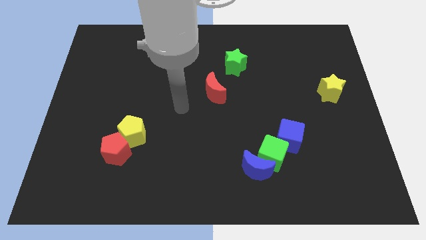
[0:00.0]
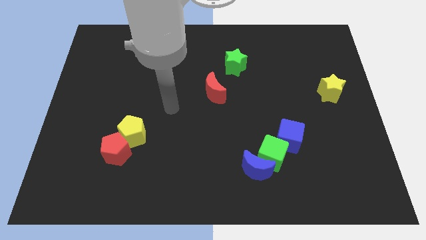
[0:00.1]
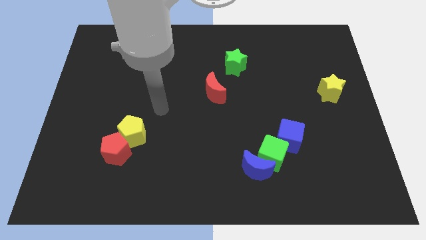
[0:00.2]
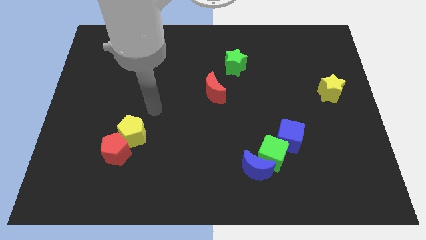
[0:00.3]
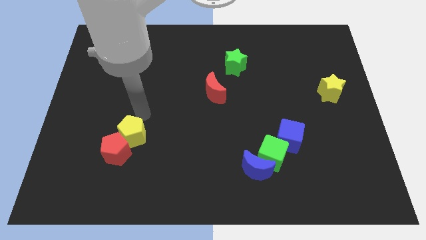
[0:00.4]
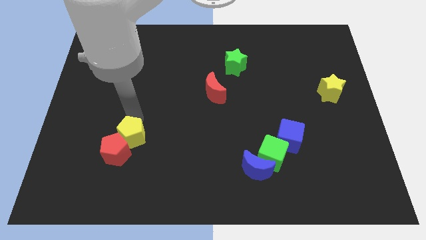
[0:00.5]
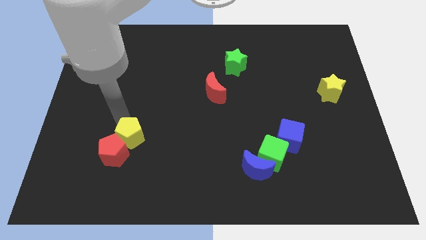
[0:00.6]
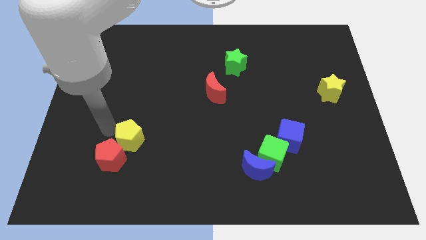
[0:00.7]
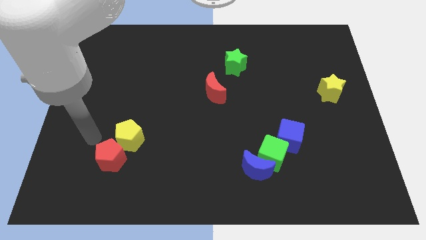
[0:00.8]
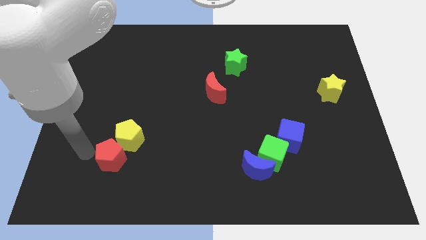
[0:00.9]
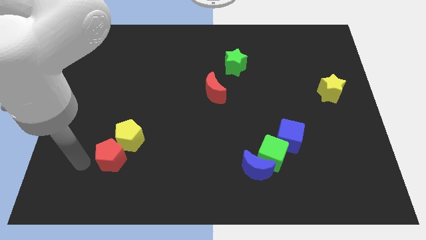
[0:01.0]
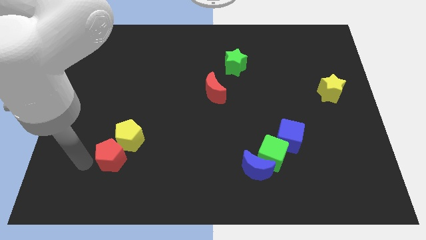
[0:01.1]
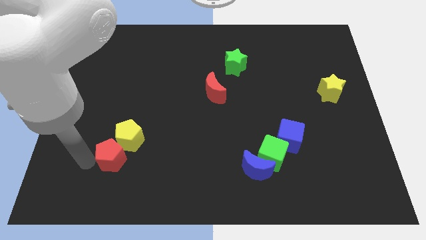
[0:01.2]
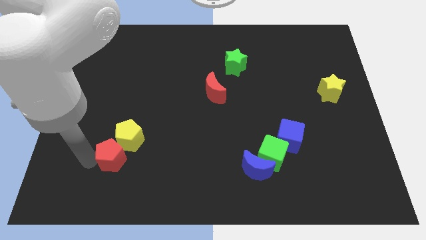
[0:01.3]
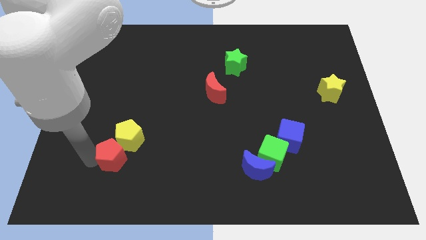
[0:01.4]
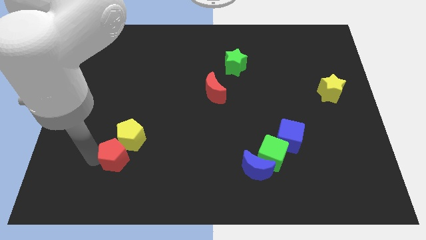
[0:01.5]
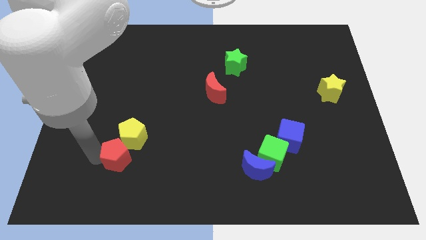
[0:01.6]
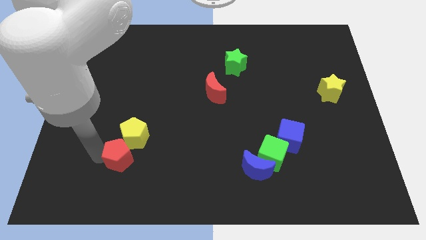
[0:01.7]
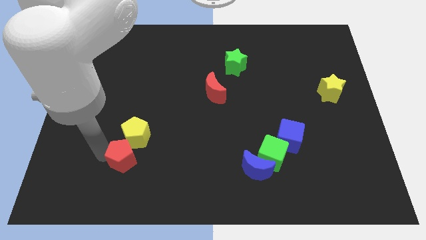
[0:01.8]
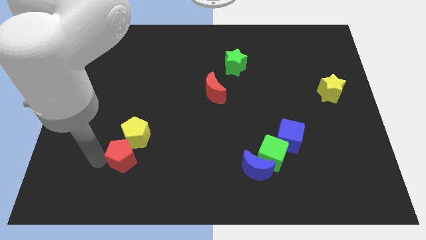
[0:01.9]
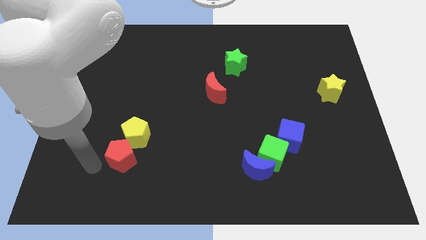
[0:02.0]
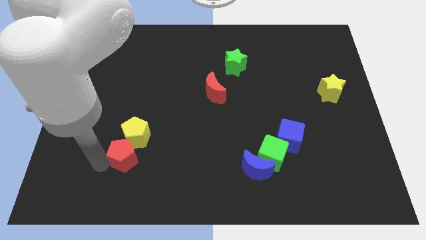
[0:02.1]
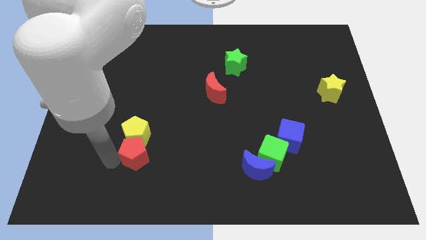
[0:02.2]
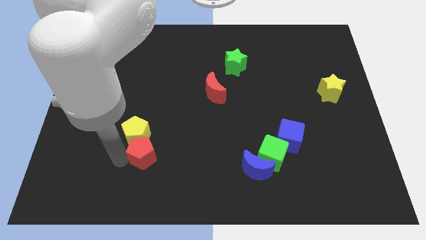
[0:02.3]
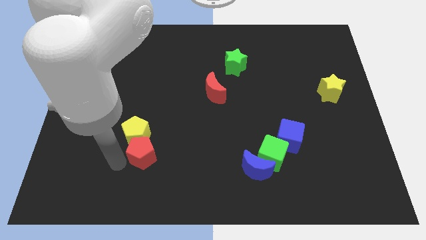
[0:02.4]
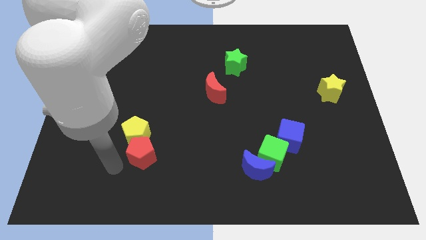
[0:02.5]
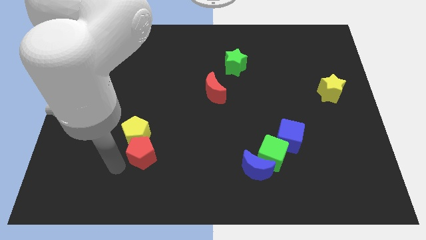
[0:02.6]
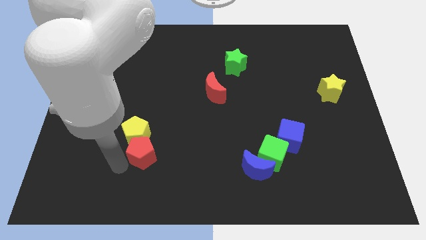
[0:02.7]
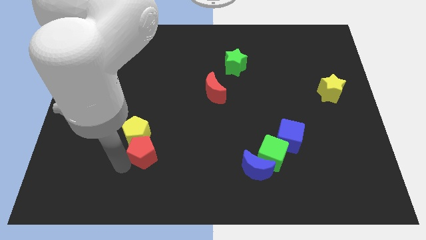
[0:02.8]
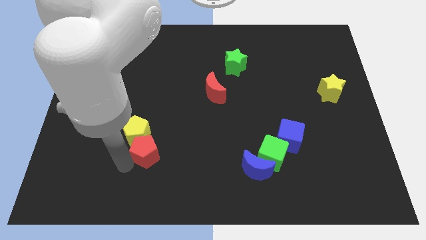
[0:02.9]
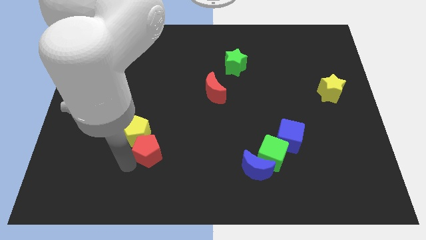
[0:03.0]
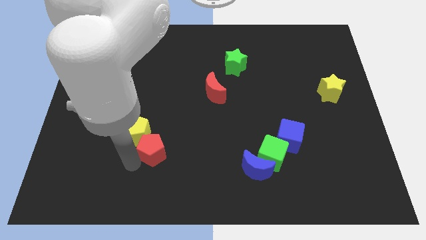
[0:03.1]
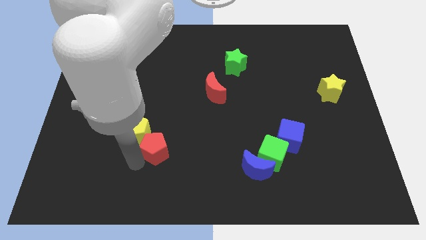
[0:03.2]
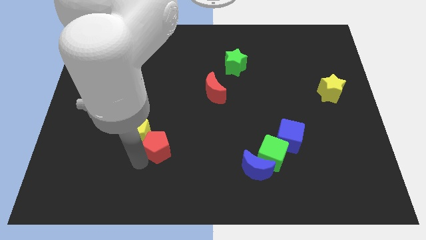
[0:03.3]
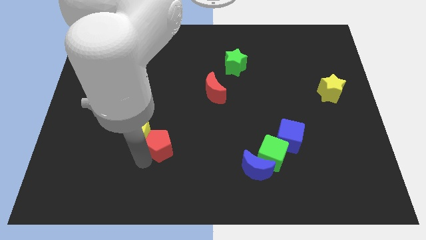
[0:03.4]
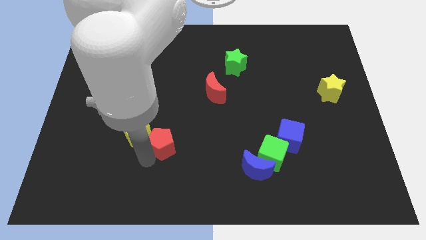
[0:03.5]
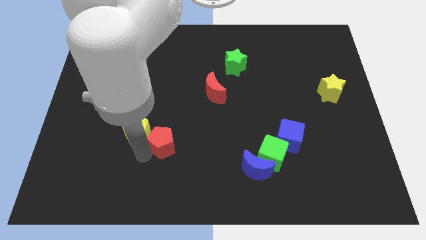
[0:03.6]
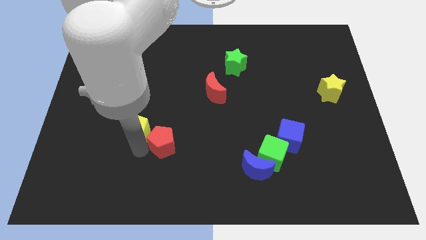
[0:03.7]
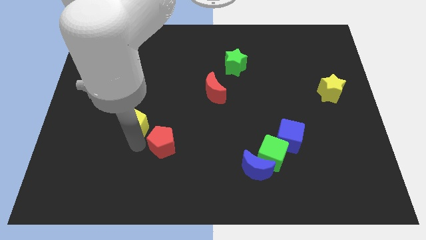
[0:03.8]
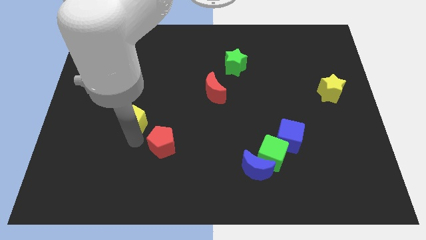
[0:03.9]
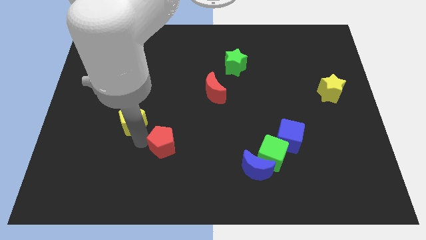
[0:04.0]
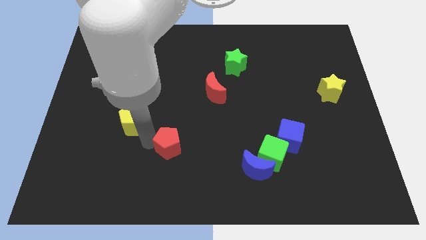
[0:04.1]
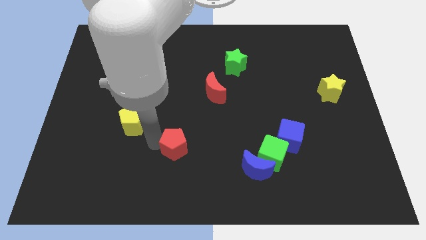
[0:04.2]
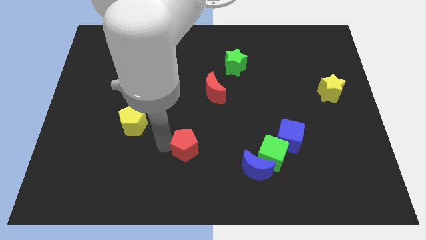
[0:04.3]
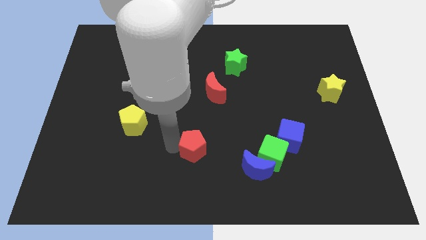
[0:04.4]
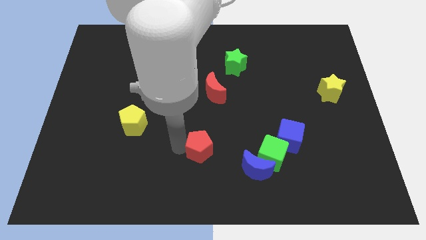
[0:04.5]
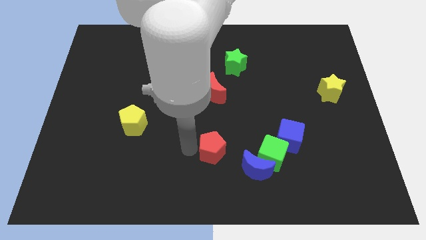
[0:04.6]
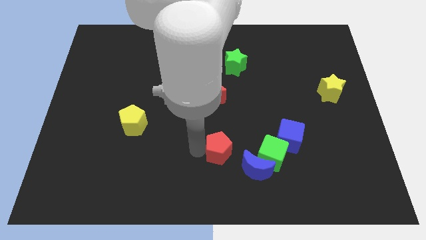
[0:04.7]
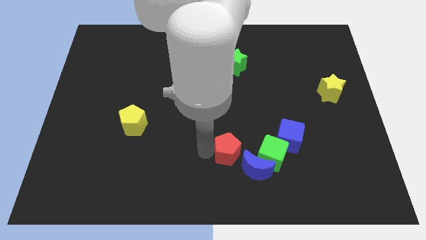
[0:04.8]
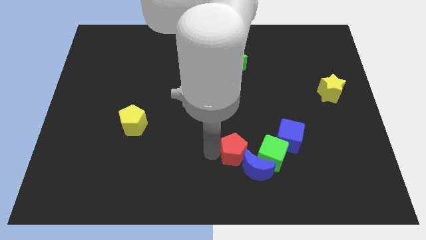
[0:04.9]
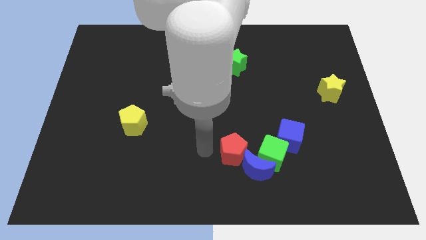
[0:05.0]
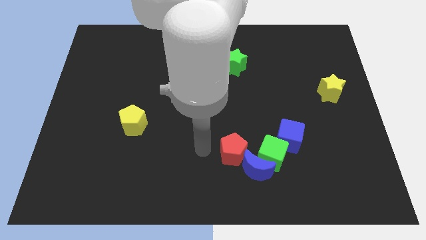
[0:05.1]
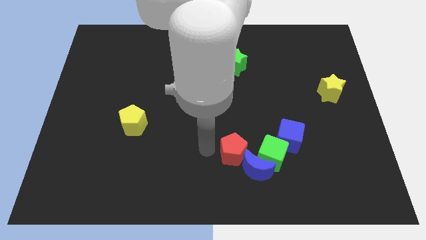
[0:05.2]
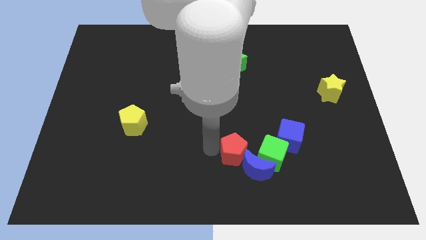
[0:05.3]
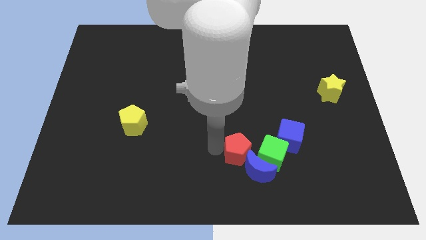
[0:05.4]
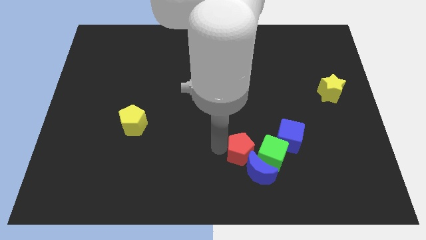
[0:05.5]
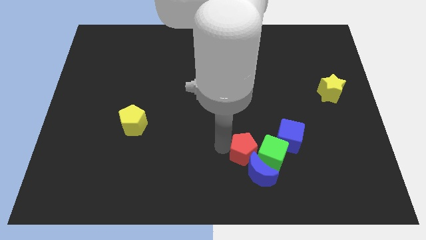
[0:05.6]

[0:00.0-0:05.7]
put the red pentagon close to the green cube

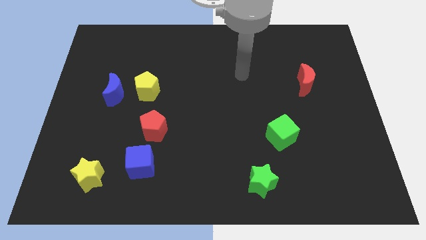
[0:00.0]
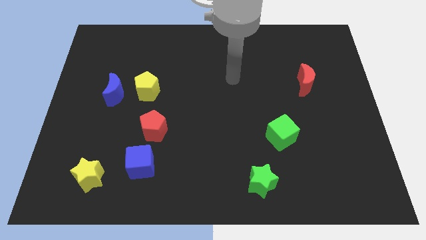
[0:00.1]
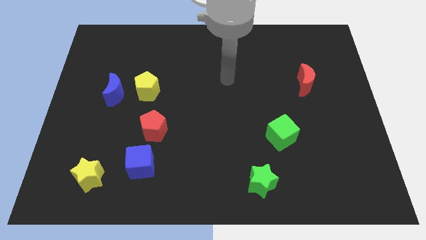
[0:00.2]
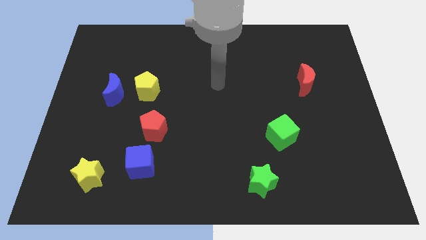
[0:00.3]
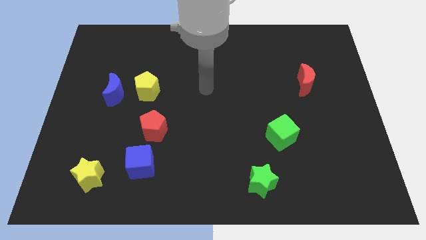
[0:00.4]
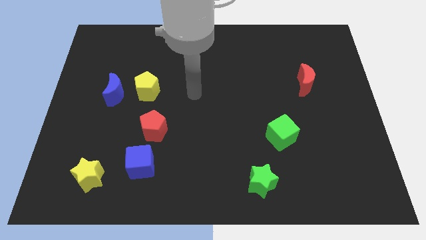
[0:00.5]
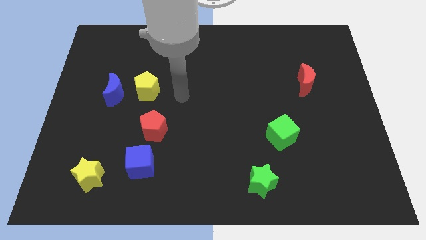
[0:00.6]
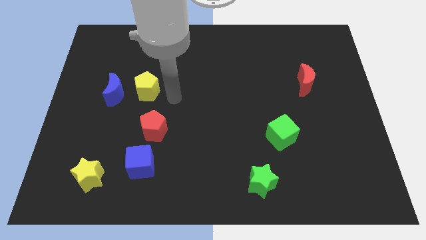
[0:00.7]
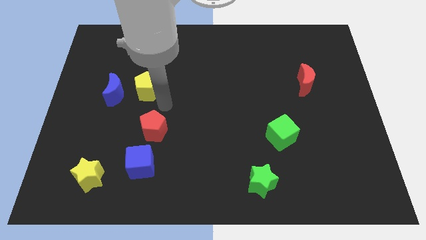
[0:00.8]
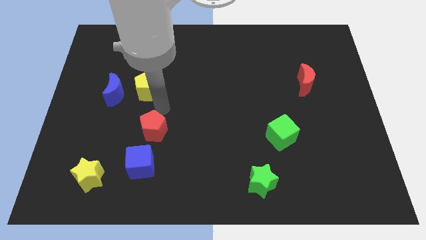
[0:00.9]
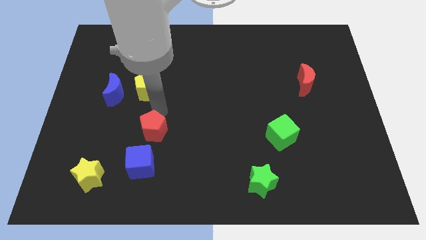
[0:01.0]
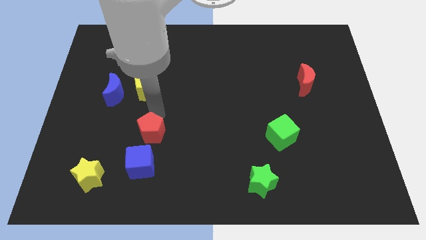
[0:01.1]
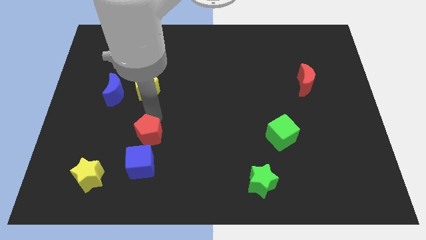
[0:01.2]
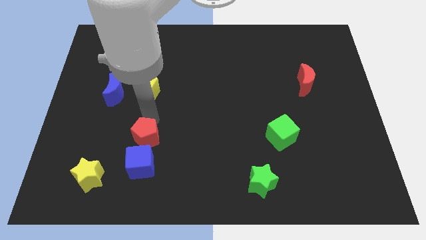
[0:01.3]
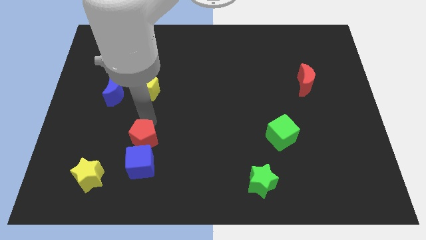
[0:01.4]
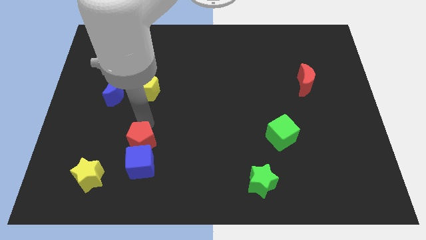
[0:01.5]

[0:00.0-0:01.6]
slide the red pentagon towards the blue cube
